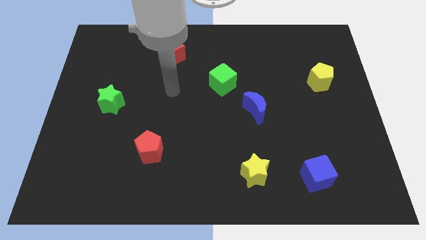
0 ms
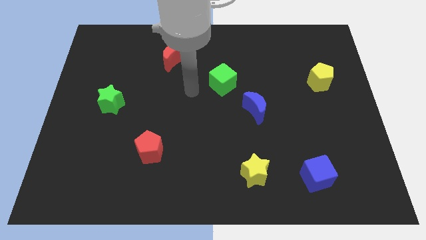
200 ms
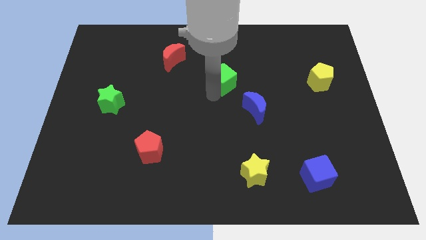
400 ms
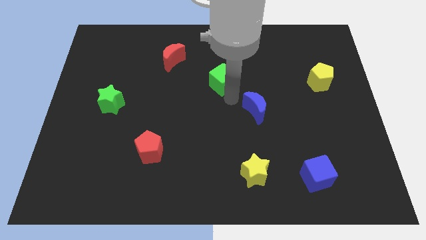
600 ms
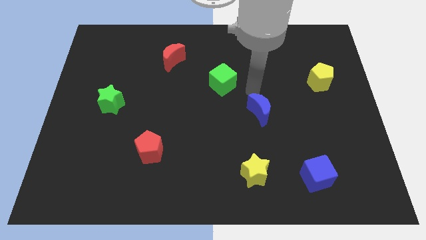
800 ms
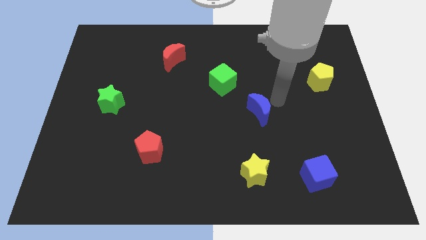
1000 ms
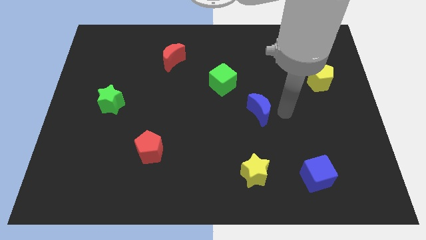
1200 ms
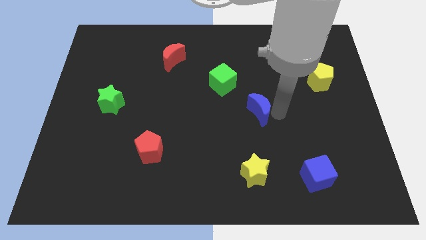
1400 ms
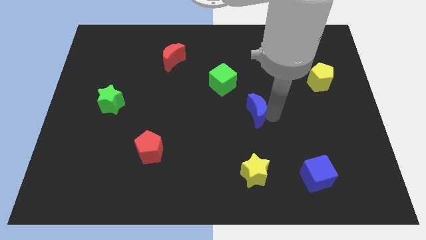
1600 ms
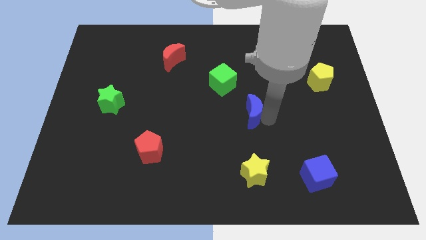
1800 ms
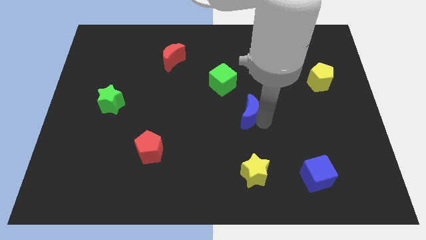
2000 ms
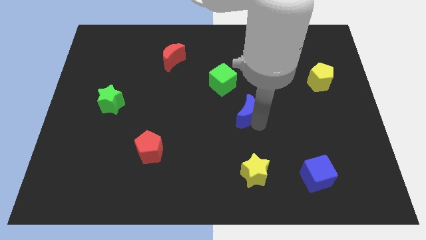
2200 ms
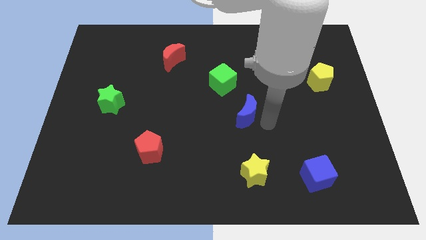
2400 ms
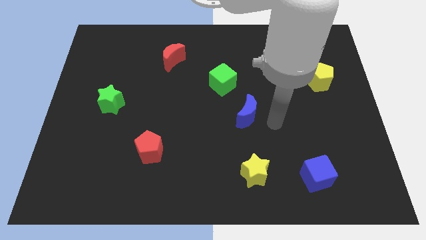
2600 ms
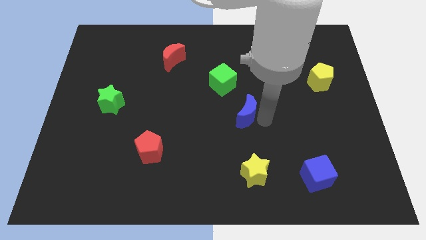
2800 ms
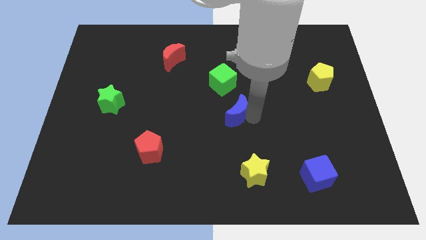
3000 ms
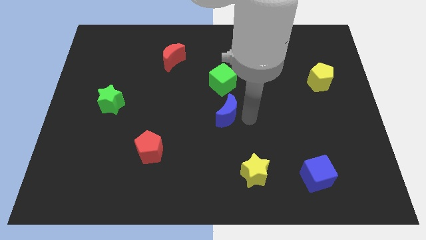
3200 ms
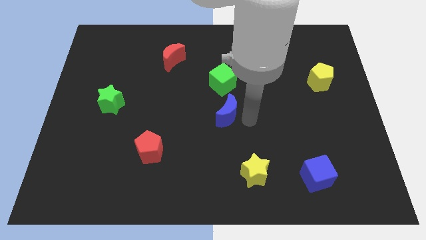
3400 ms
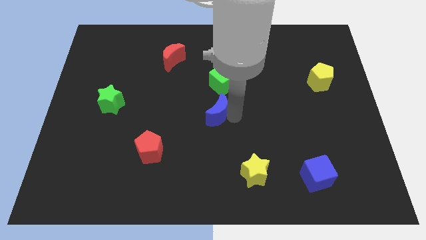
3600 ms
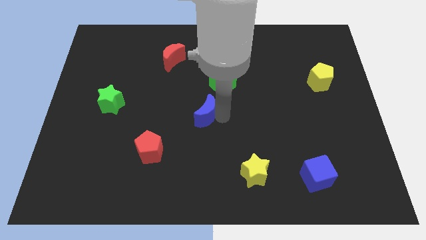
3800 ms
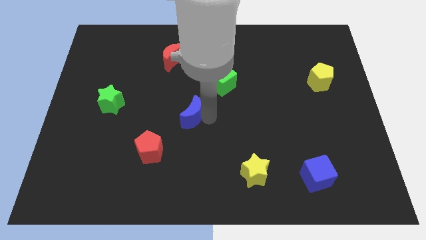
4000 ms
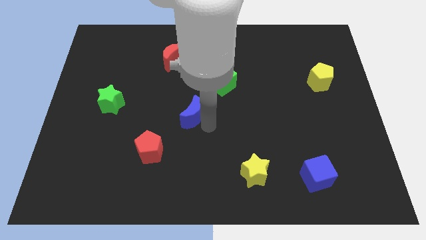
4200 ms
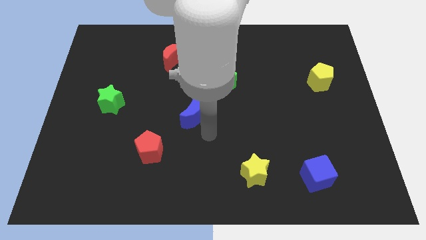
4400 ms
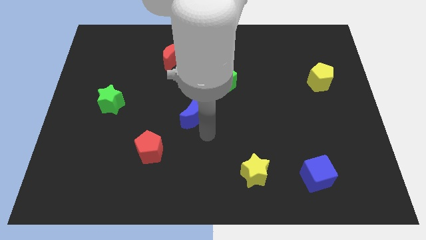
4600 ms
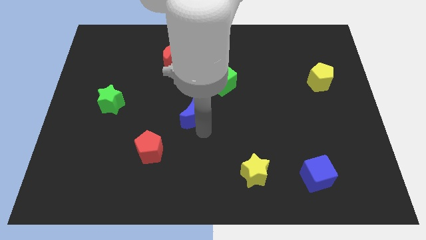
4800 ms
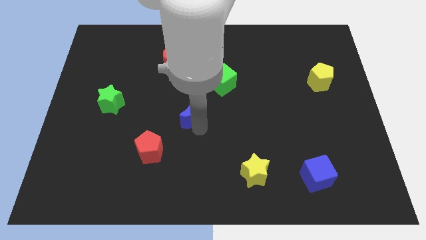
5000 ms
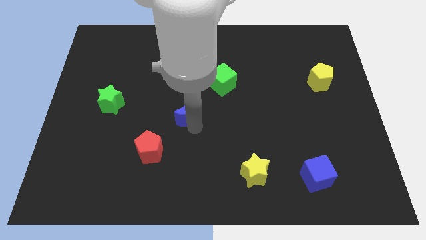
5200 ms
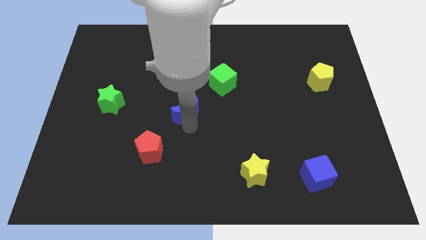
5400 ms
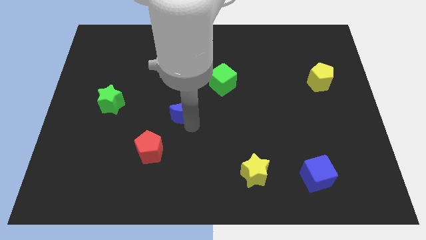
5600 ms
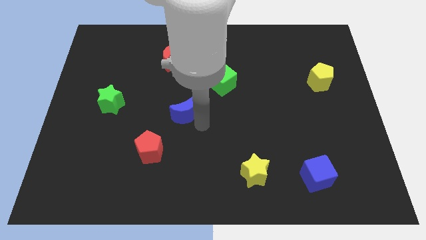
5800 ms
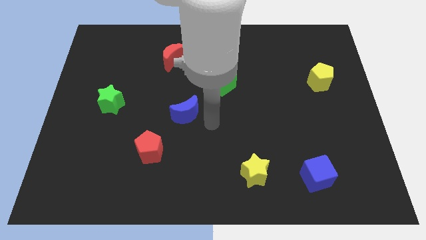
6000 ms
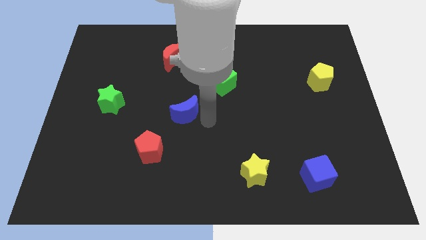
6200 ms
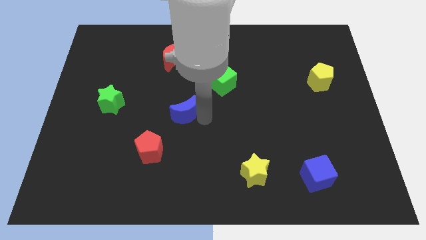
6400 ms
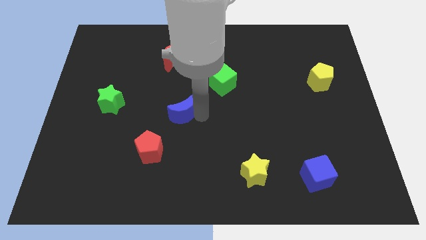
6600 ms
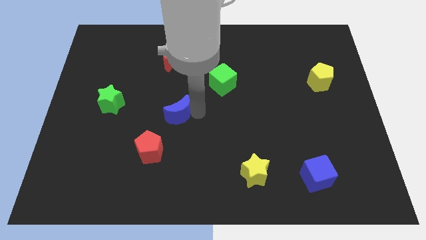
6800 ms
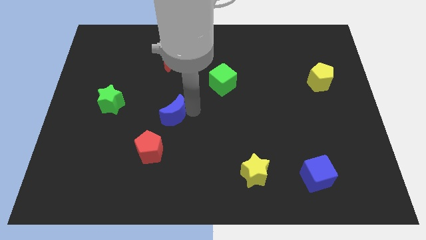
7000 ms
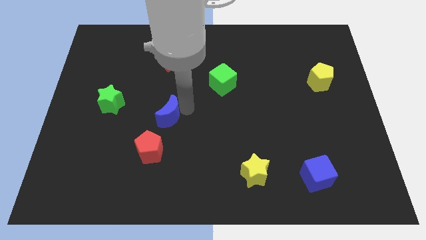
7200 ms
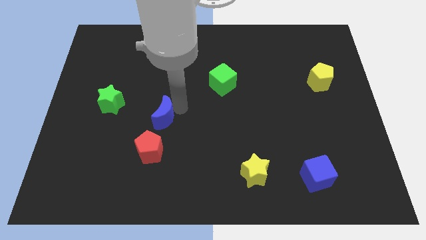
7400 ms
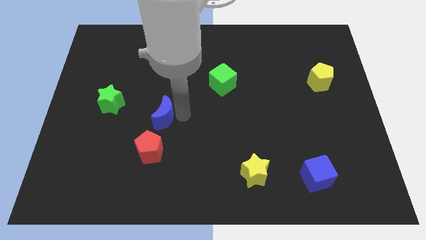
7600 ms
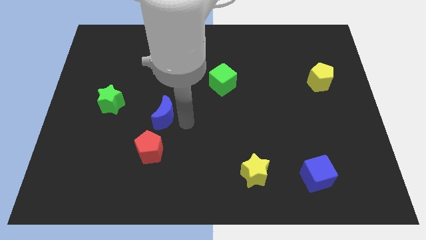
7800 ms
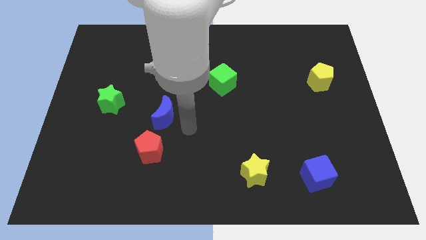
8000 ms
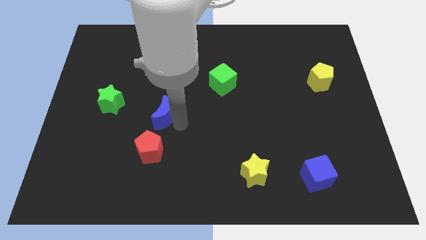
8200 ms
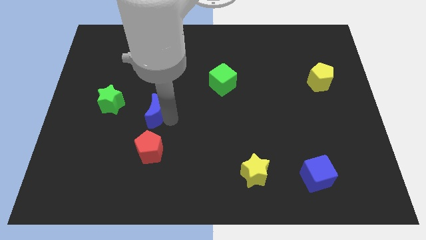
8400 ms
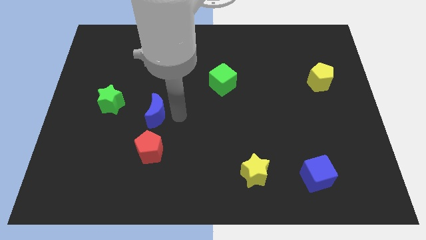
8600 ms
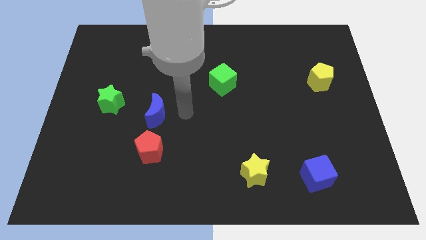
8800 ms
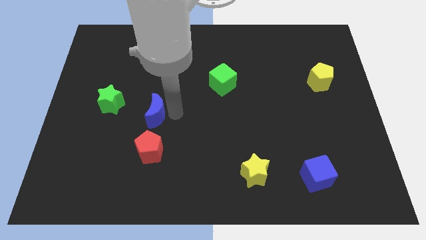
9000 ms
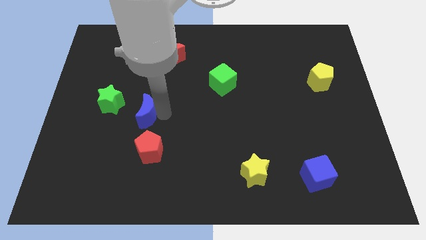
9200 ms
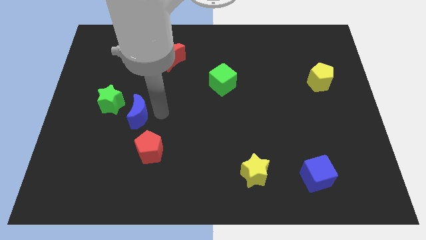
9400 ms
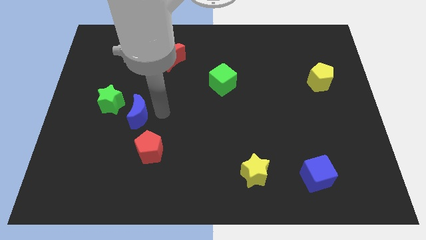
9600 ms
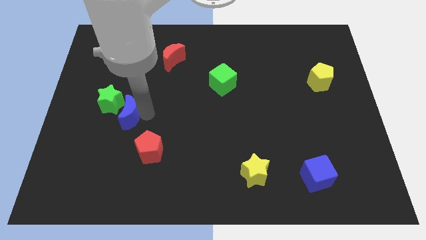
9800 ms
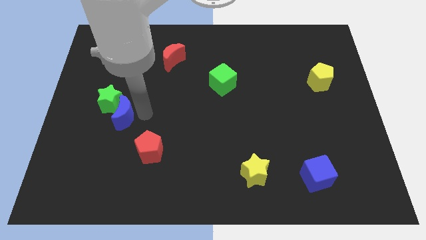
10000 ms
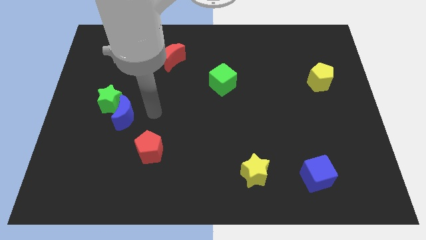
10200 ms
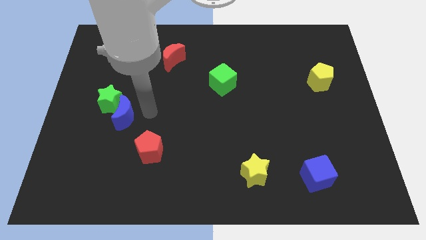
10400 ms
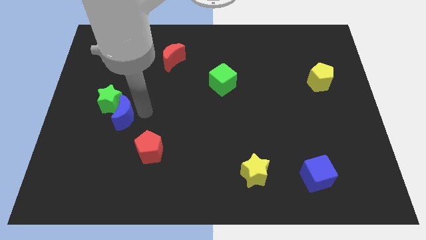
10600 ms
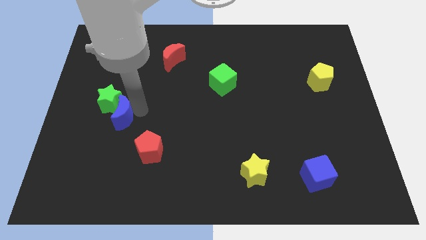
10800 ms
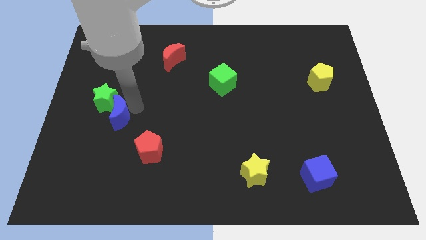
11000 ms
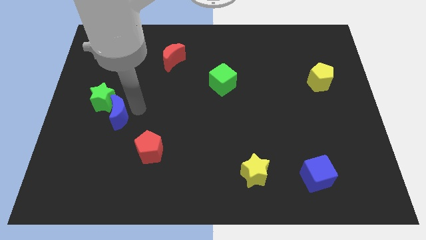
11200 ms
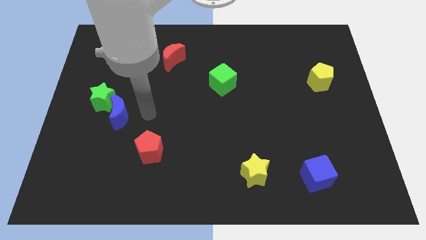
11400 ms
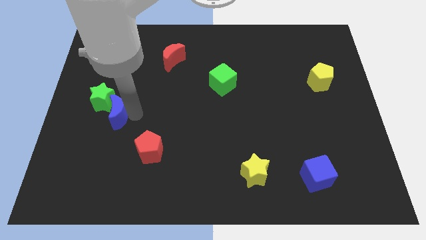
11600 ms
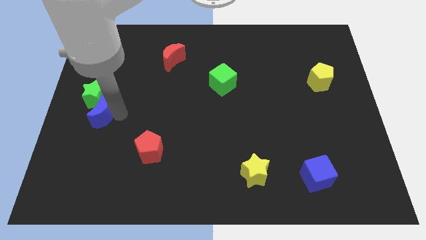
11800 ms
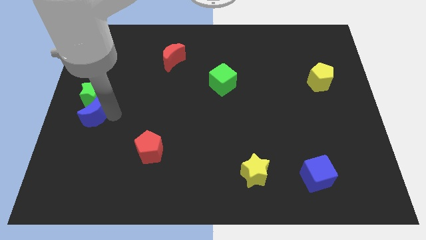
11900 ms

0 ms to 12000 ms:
move the blue moon to the left side of the board

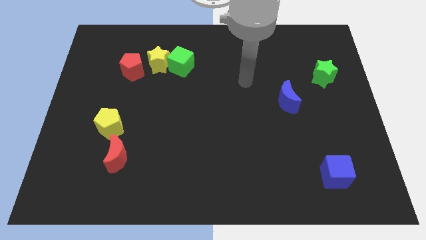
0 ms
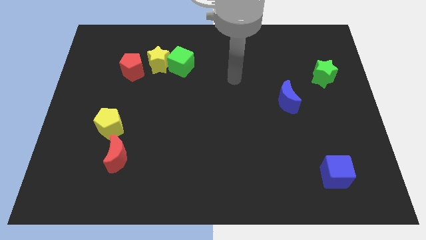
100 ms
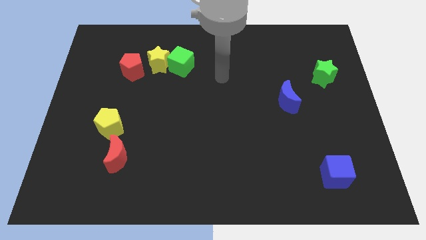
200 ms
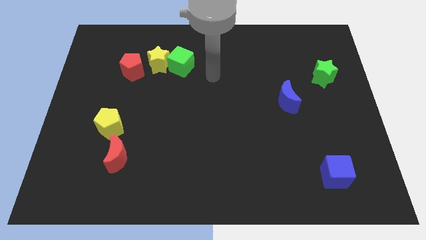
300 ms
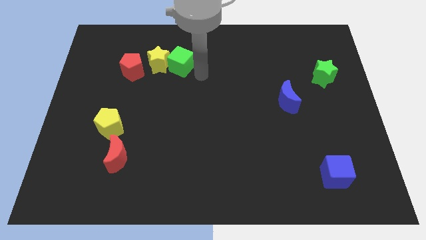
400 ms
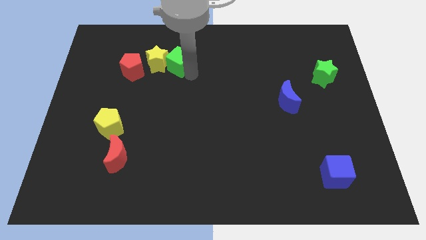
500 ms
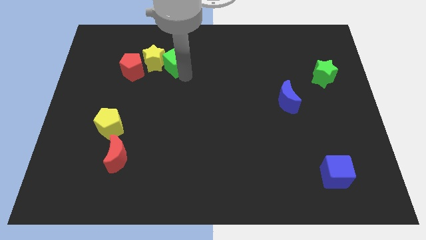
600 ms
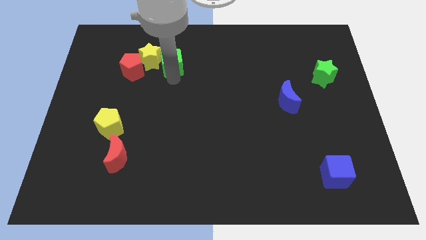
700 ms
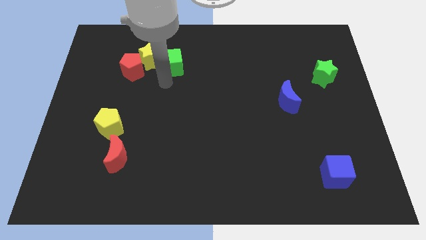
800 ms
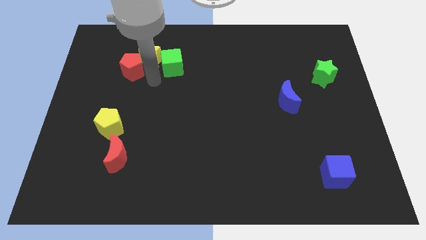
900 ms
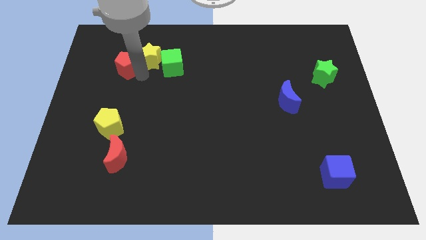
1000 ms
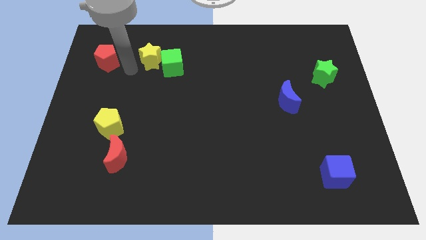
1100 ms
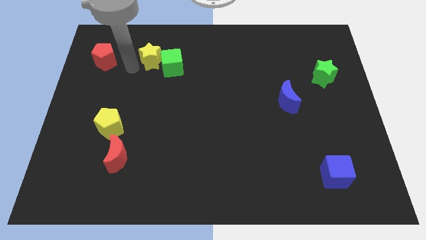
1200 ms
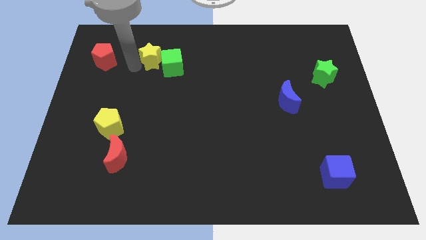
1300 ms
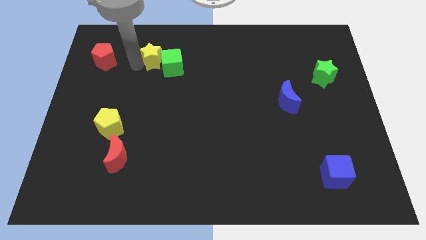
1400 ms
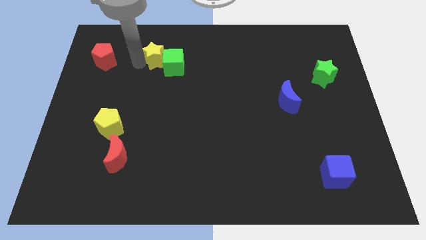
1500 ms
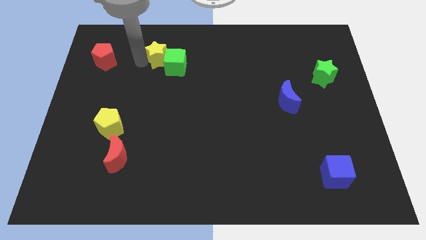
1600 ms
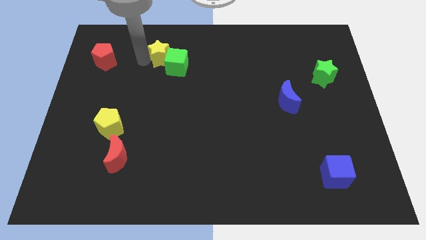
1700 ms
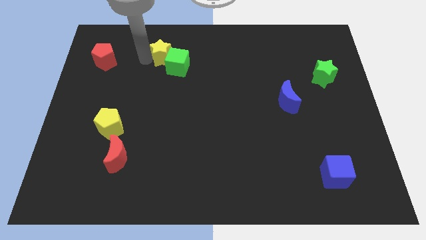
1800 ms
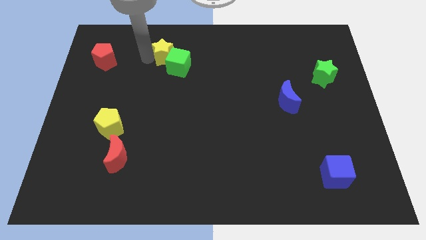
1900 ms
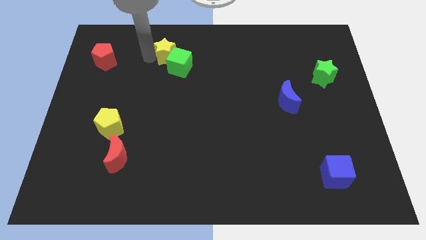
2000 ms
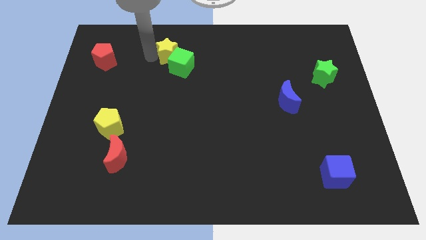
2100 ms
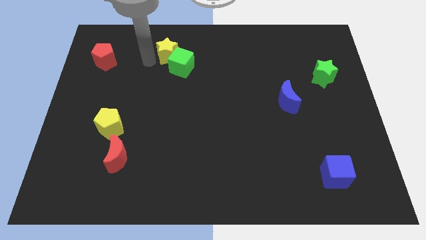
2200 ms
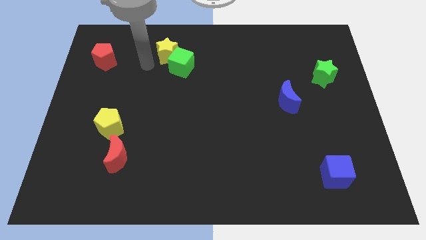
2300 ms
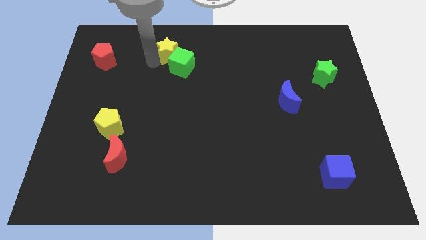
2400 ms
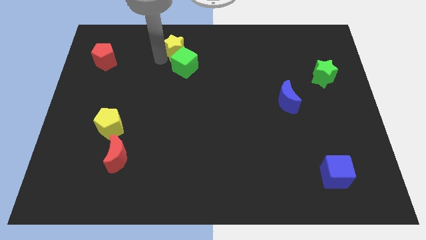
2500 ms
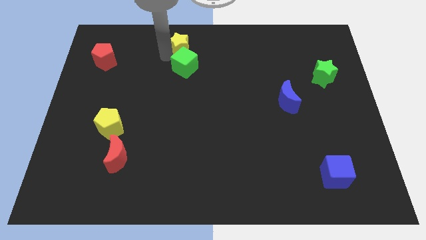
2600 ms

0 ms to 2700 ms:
push the yellow star to the top side
